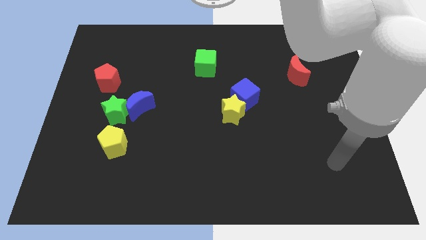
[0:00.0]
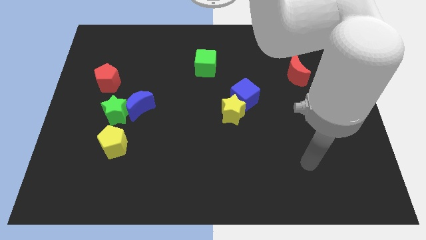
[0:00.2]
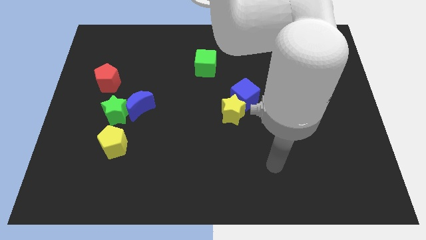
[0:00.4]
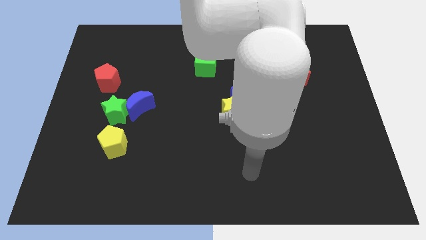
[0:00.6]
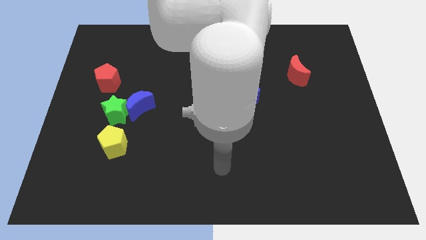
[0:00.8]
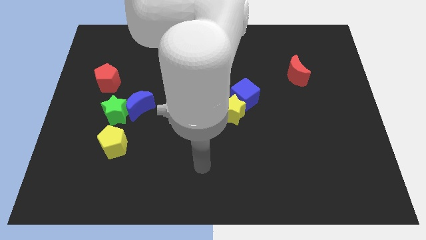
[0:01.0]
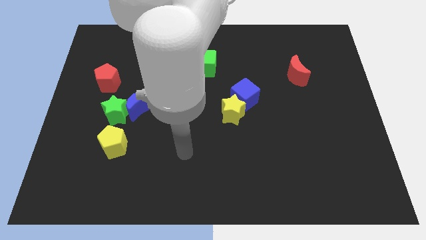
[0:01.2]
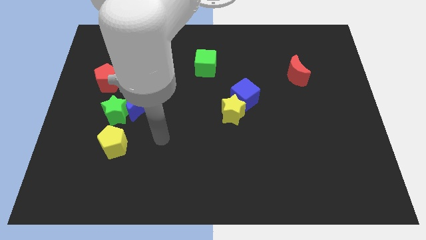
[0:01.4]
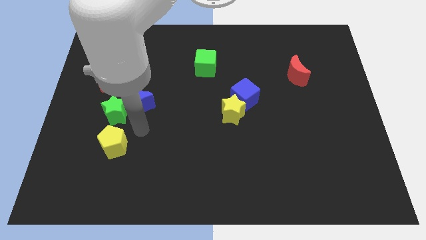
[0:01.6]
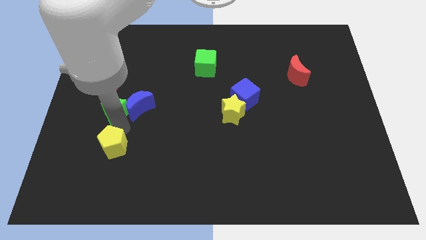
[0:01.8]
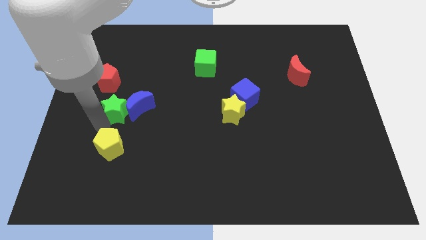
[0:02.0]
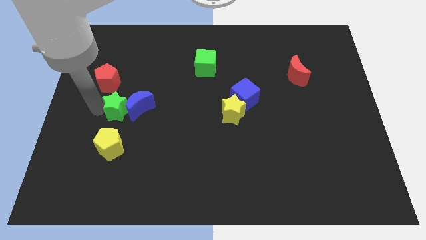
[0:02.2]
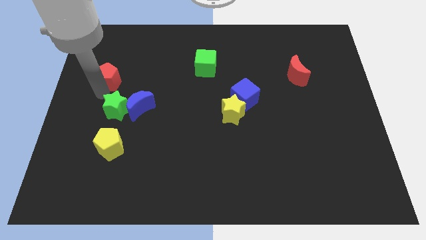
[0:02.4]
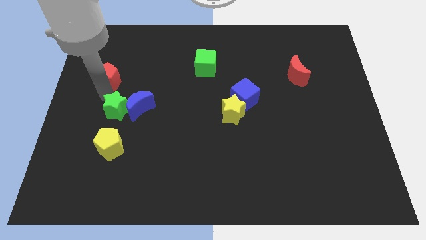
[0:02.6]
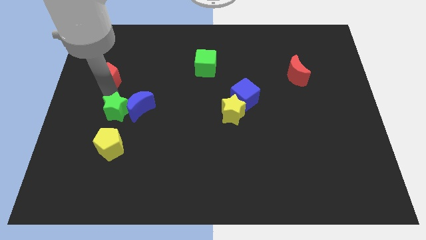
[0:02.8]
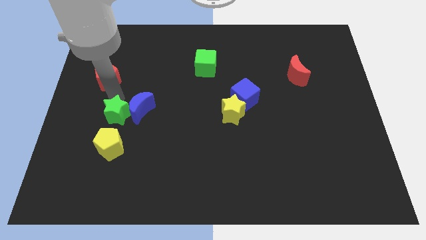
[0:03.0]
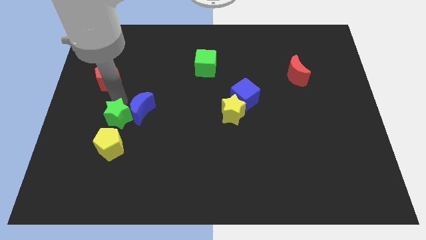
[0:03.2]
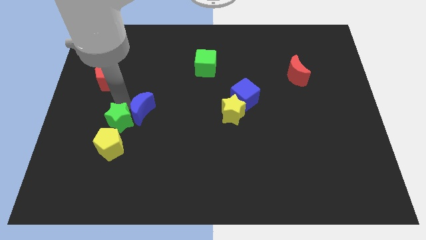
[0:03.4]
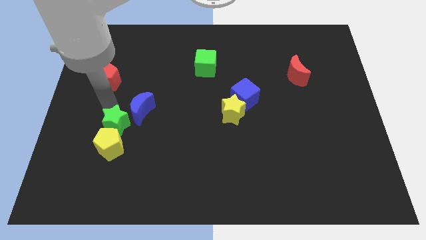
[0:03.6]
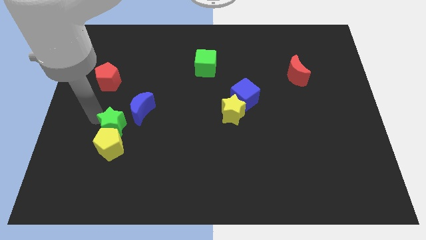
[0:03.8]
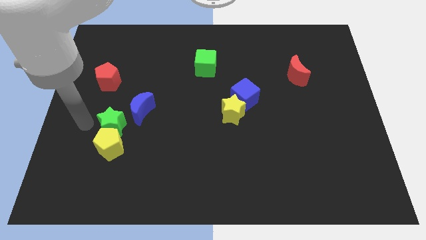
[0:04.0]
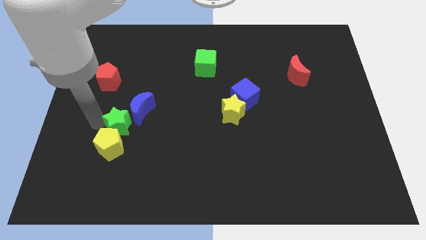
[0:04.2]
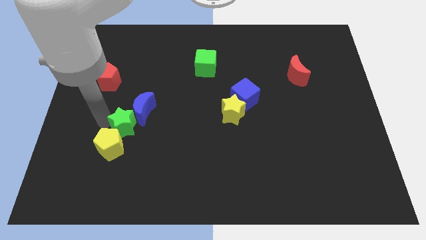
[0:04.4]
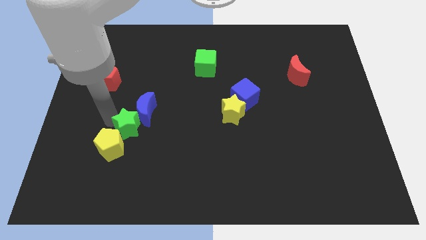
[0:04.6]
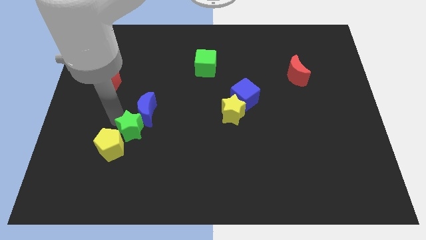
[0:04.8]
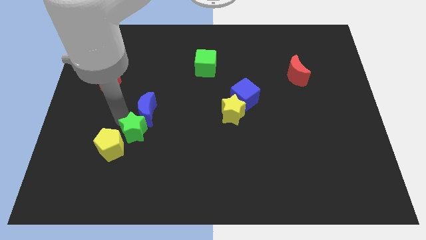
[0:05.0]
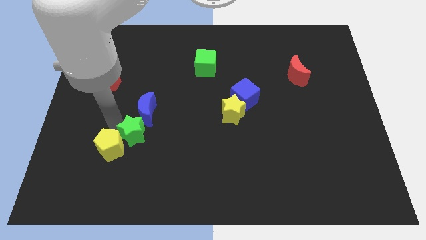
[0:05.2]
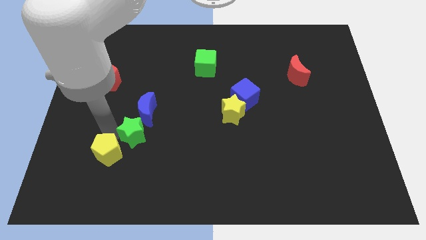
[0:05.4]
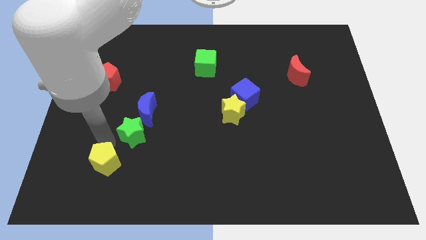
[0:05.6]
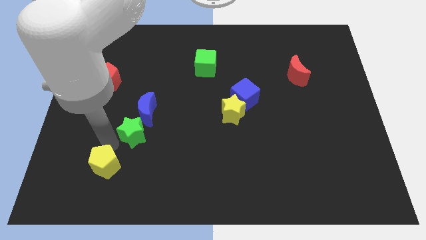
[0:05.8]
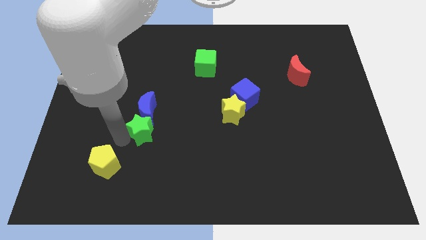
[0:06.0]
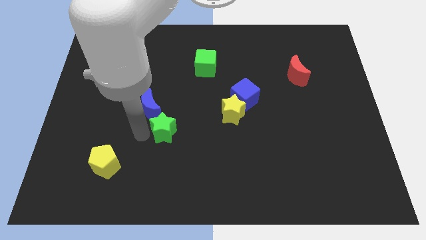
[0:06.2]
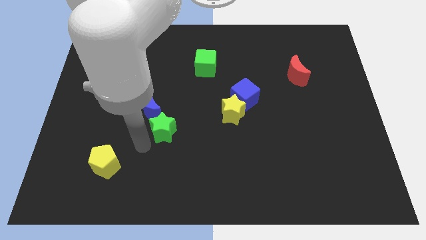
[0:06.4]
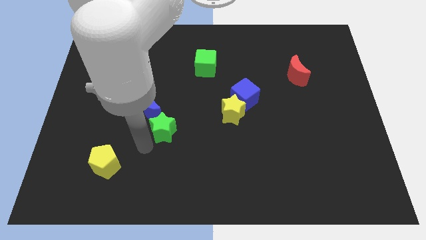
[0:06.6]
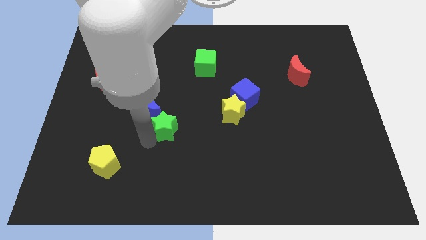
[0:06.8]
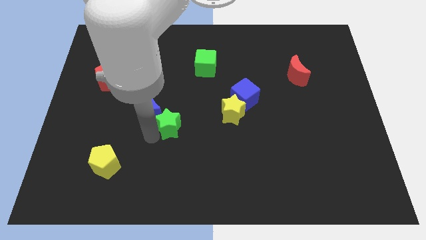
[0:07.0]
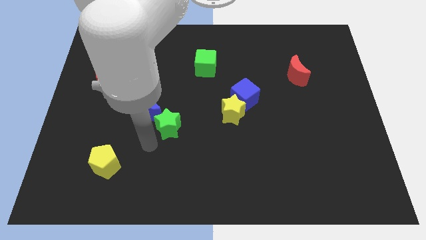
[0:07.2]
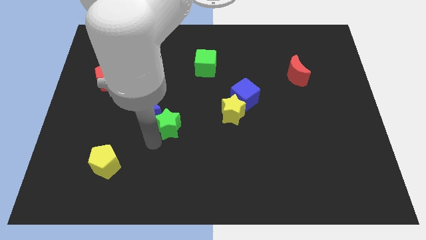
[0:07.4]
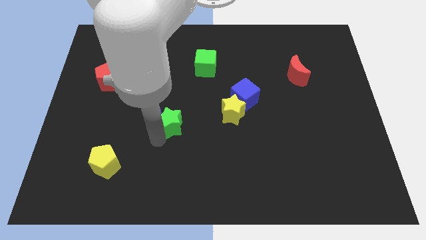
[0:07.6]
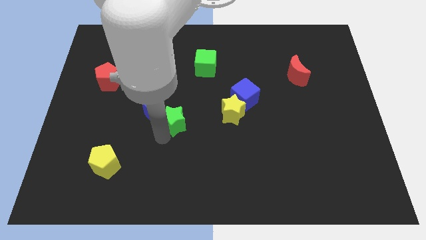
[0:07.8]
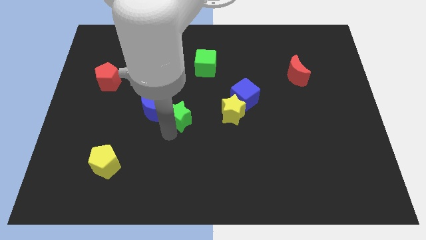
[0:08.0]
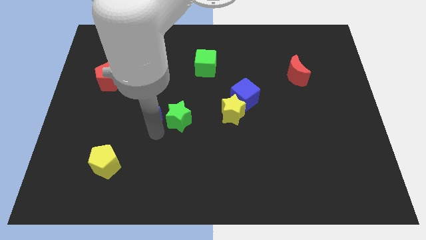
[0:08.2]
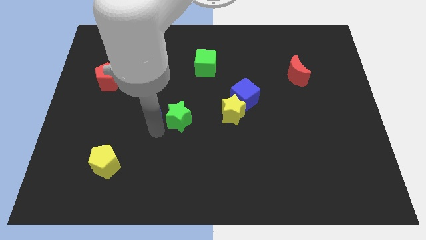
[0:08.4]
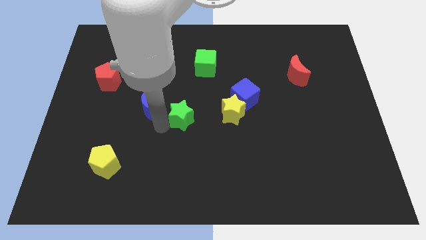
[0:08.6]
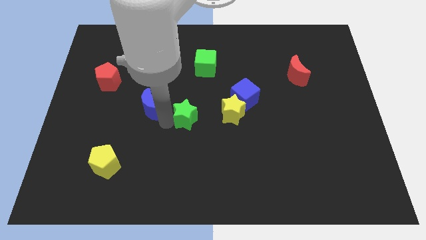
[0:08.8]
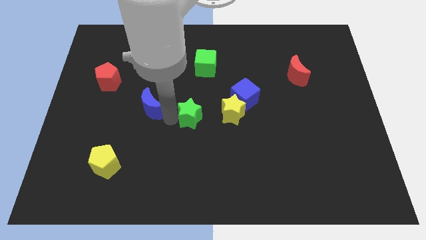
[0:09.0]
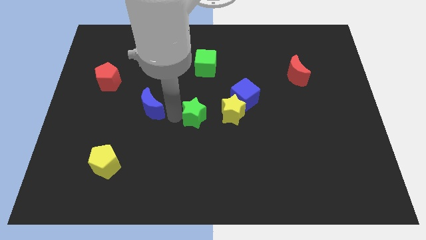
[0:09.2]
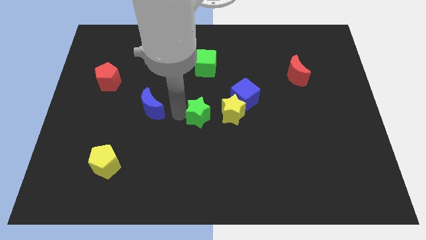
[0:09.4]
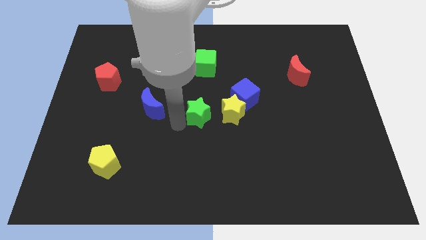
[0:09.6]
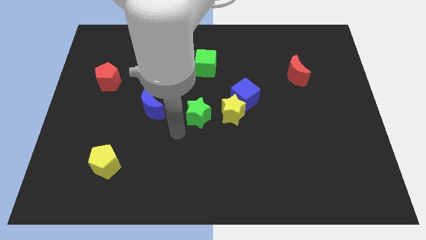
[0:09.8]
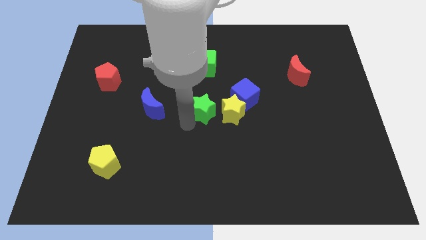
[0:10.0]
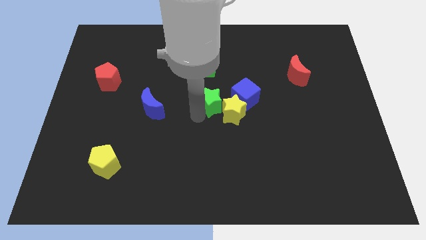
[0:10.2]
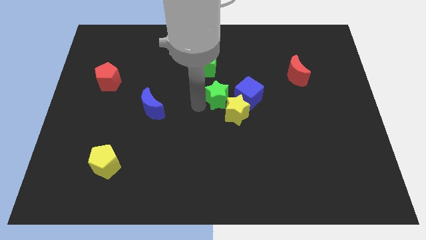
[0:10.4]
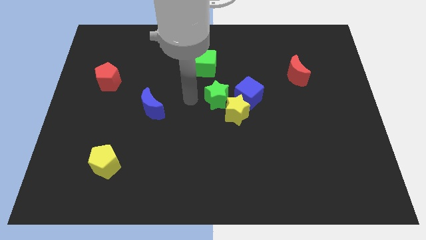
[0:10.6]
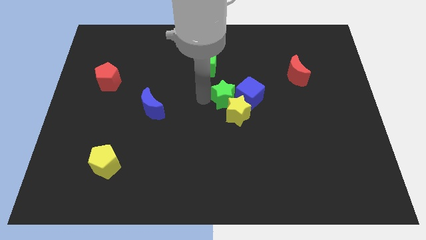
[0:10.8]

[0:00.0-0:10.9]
move the green star to the blue cube

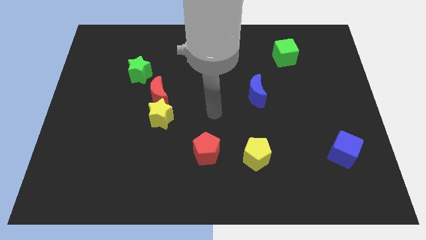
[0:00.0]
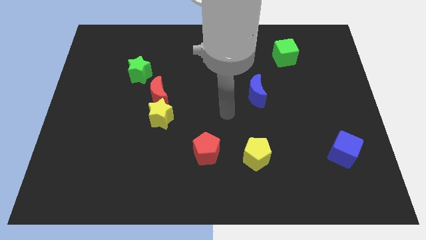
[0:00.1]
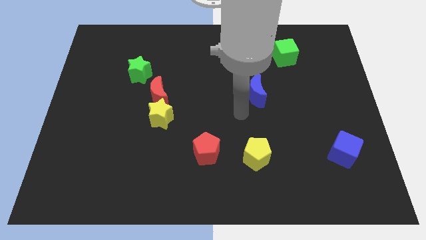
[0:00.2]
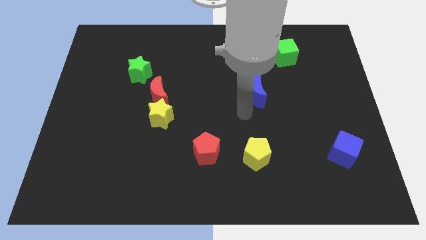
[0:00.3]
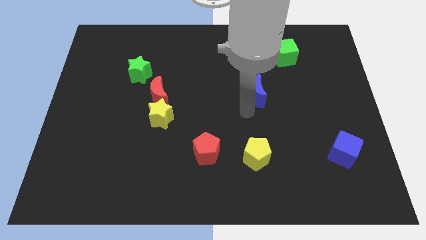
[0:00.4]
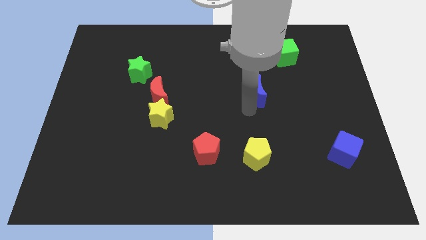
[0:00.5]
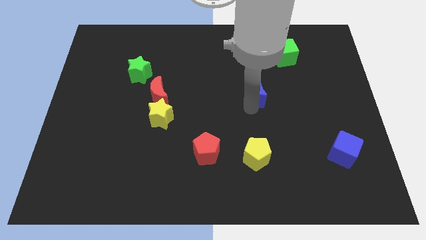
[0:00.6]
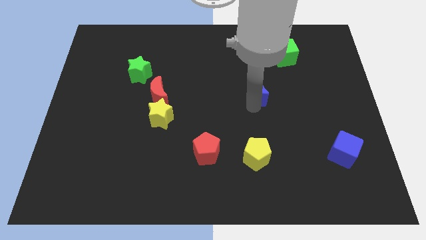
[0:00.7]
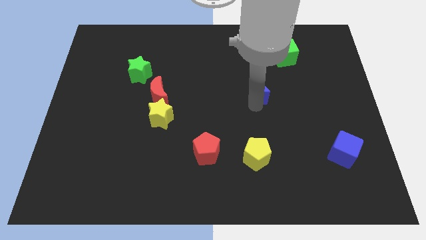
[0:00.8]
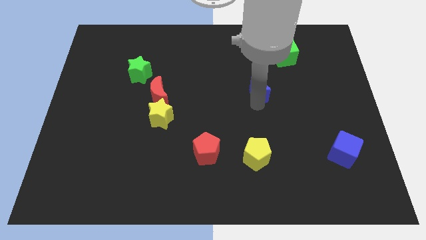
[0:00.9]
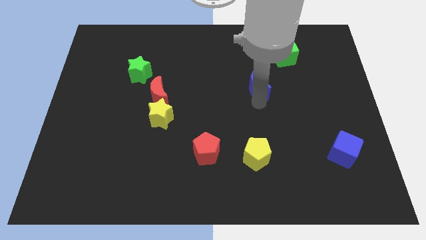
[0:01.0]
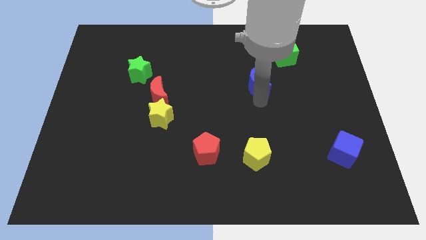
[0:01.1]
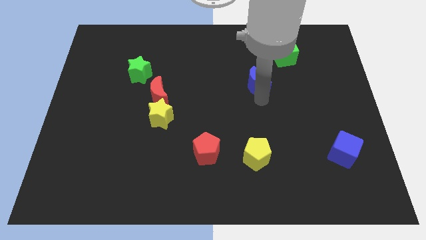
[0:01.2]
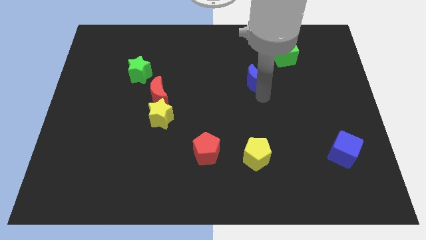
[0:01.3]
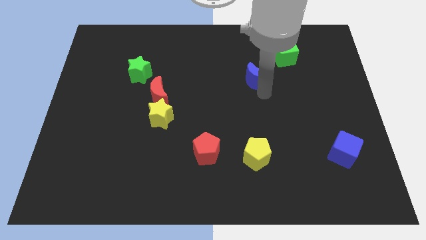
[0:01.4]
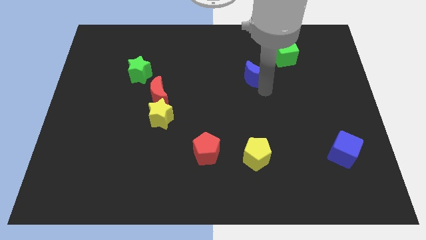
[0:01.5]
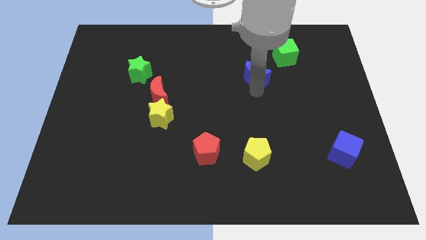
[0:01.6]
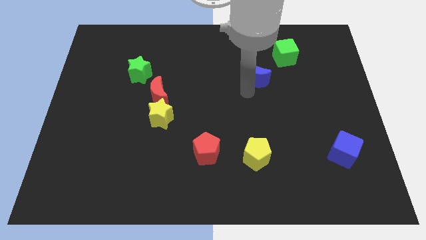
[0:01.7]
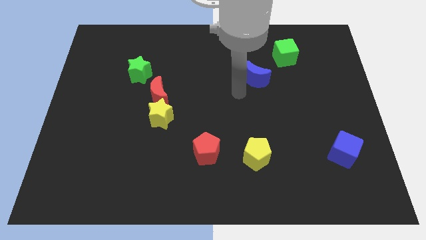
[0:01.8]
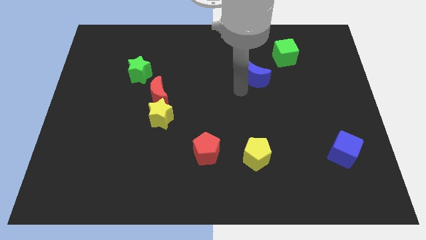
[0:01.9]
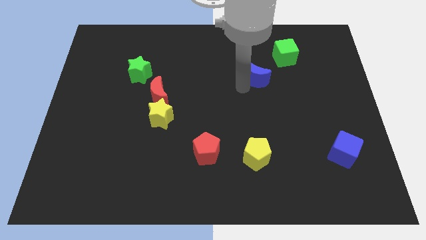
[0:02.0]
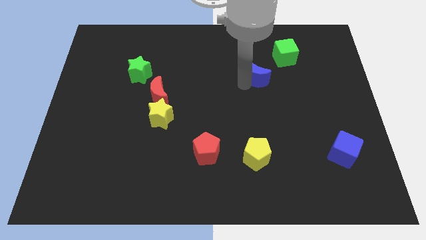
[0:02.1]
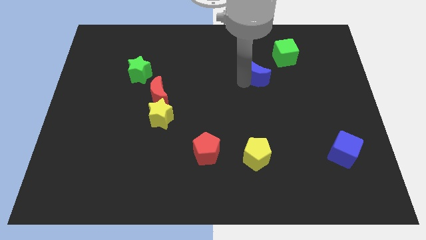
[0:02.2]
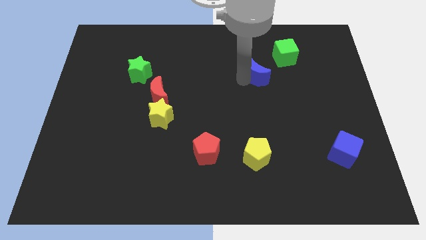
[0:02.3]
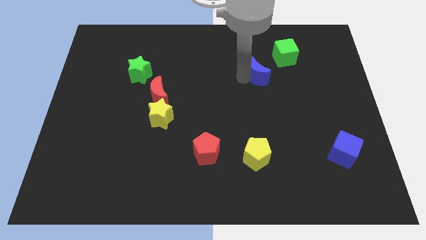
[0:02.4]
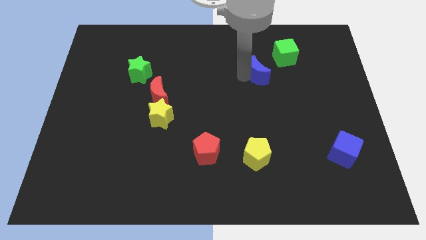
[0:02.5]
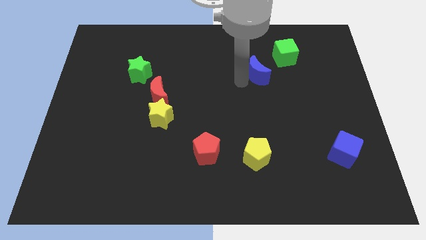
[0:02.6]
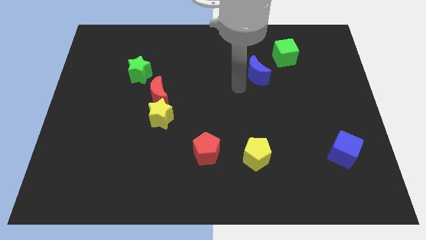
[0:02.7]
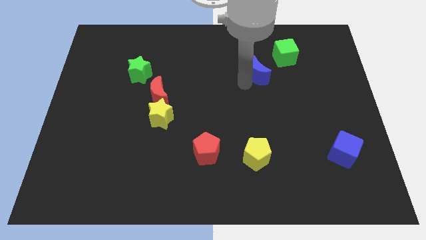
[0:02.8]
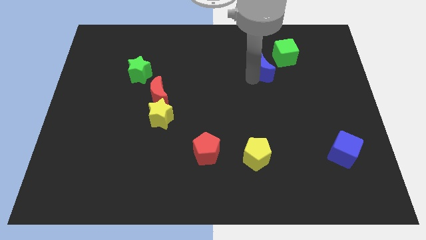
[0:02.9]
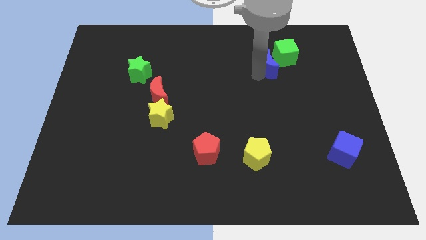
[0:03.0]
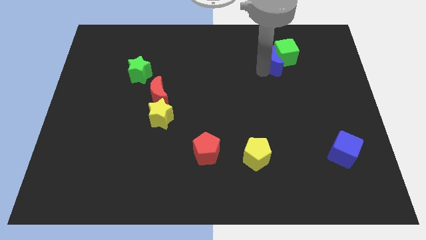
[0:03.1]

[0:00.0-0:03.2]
put the blue moon next to the green cube
